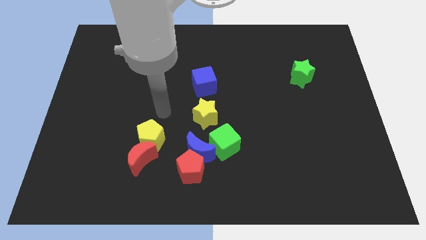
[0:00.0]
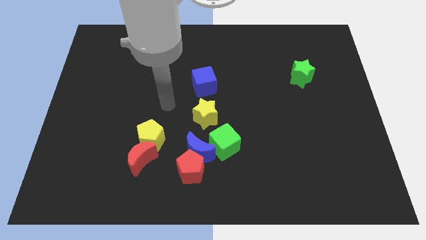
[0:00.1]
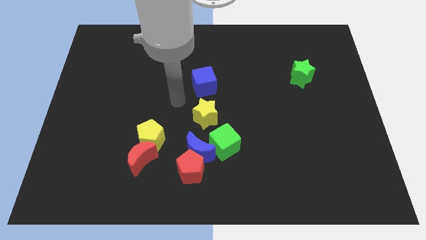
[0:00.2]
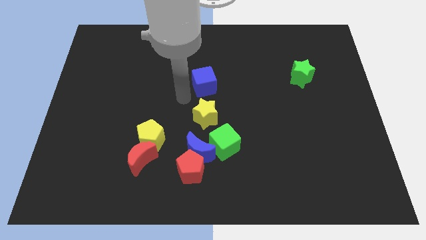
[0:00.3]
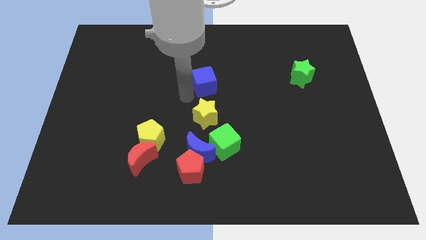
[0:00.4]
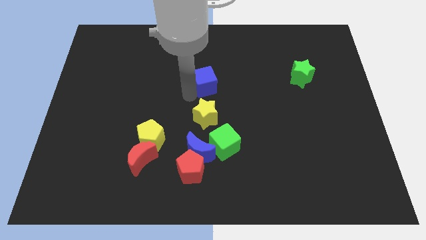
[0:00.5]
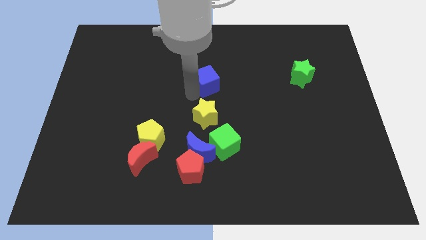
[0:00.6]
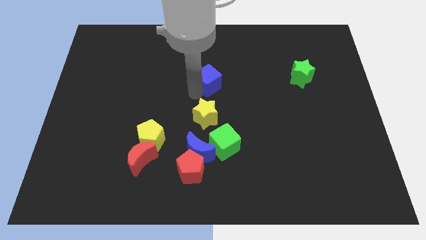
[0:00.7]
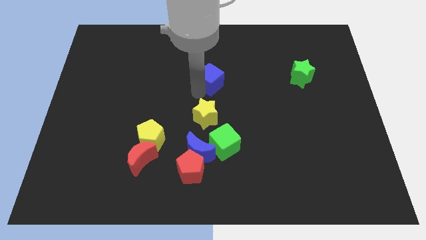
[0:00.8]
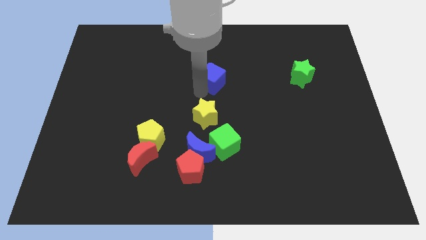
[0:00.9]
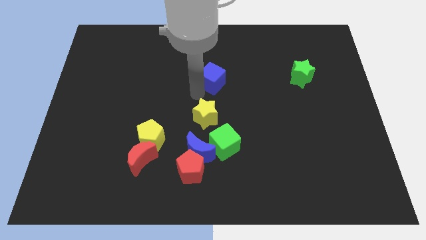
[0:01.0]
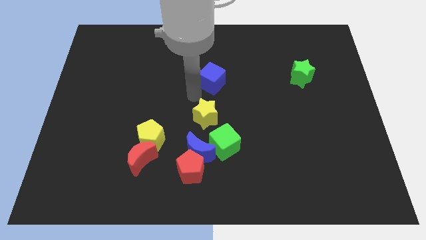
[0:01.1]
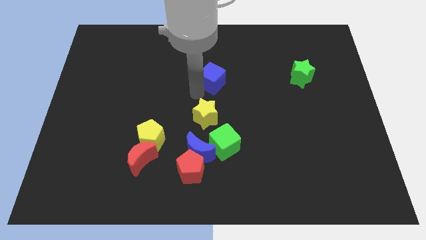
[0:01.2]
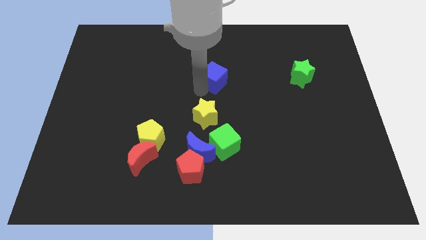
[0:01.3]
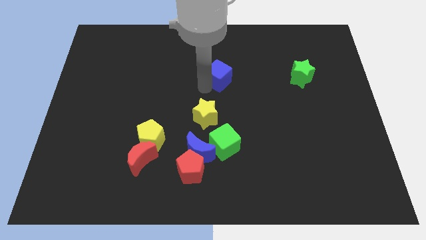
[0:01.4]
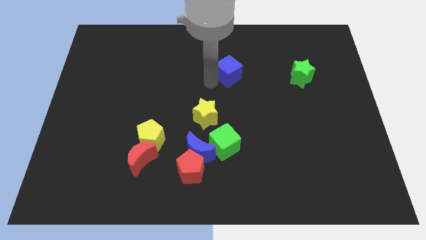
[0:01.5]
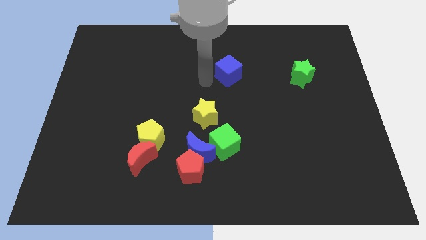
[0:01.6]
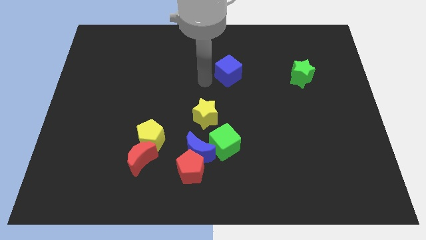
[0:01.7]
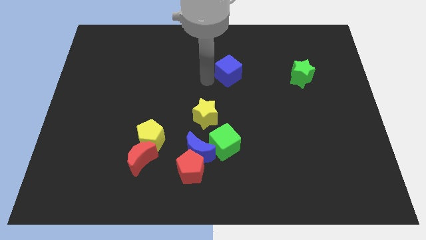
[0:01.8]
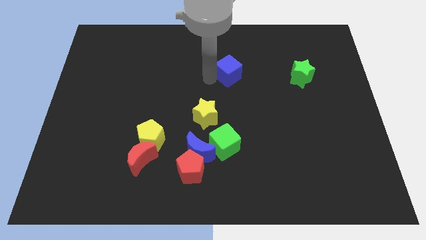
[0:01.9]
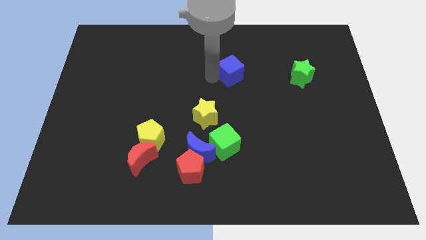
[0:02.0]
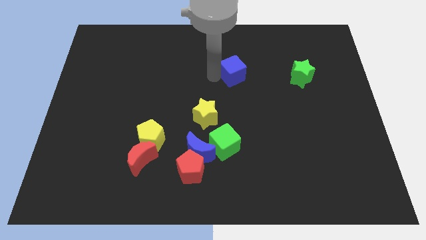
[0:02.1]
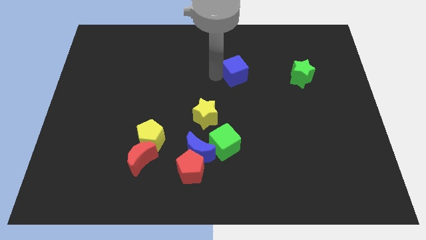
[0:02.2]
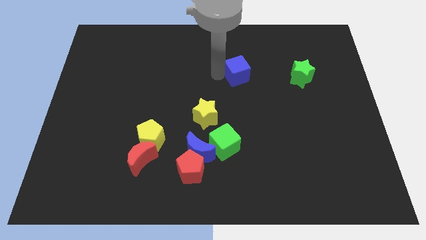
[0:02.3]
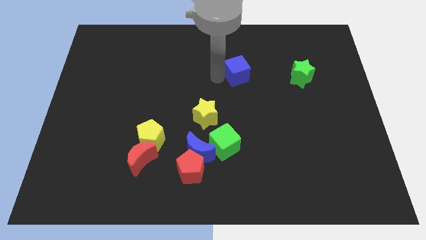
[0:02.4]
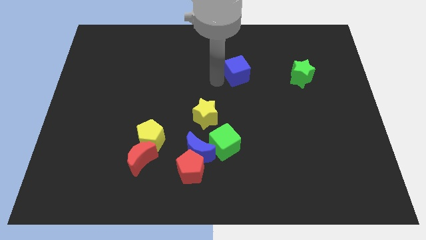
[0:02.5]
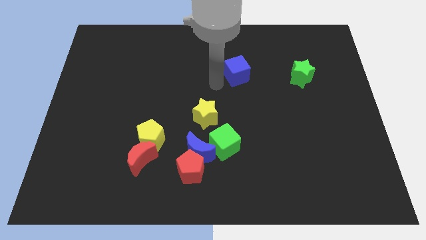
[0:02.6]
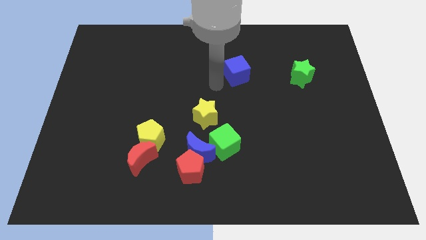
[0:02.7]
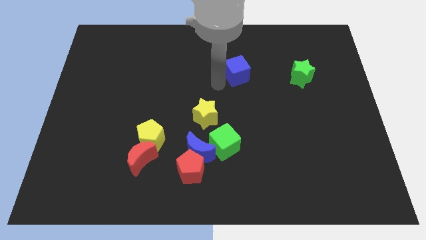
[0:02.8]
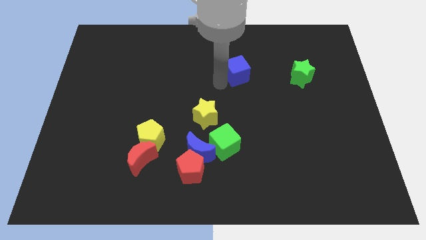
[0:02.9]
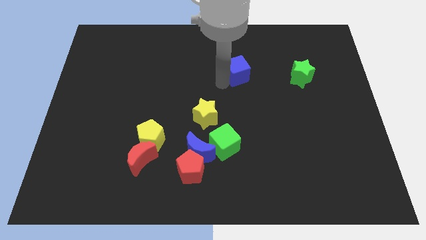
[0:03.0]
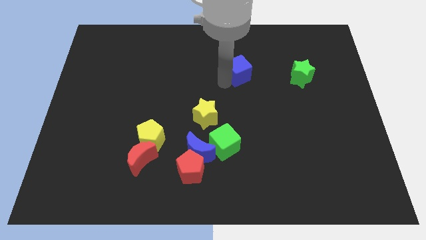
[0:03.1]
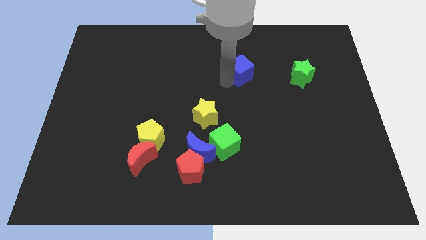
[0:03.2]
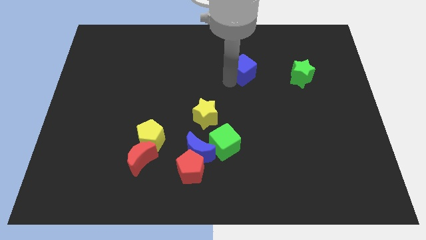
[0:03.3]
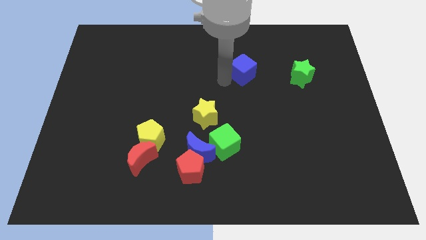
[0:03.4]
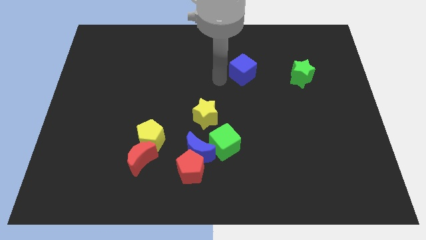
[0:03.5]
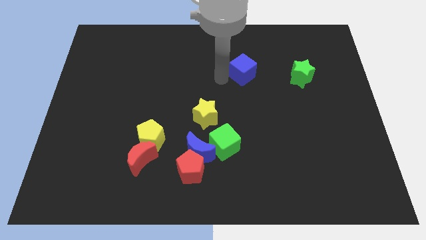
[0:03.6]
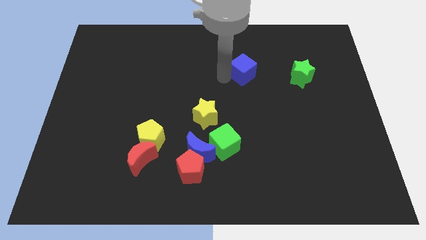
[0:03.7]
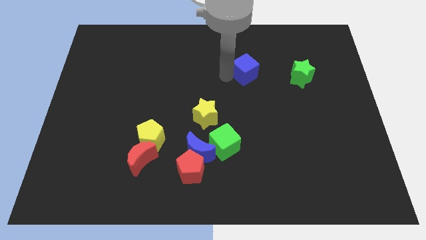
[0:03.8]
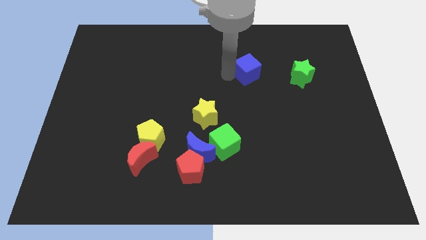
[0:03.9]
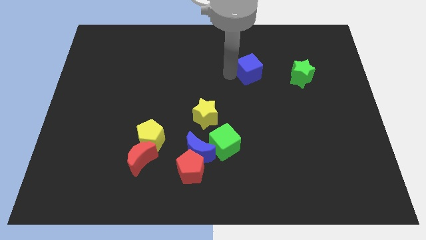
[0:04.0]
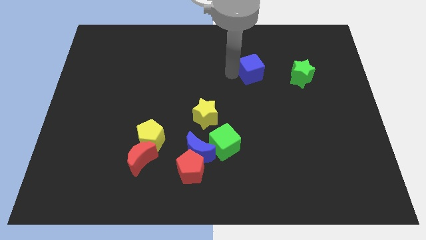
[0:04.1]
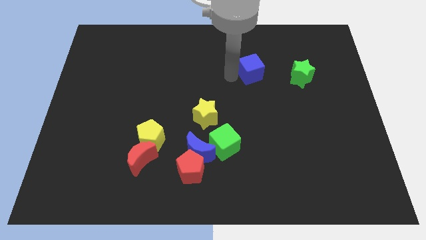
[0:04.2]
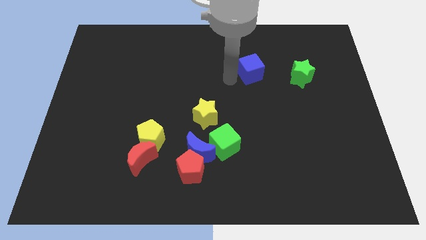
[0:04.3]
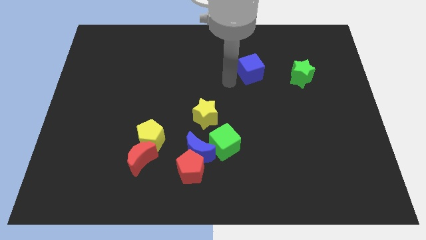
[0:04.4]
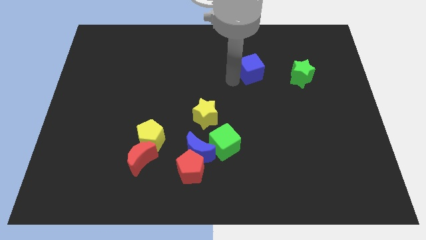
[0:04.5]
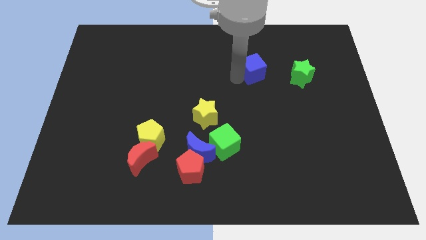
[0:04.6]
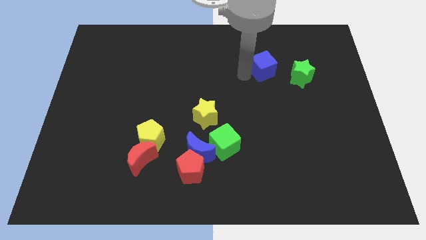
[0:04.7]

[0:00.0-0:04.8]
slide the blue cube diagonally up and to the left of the green star

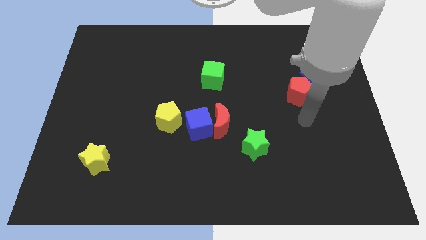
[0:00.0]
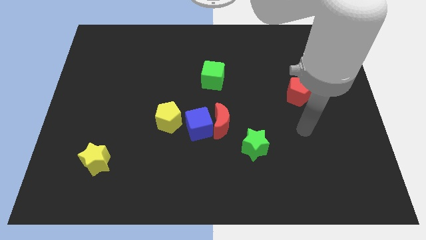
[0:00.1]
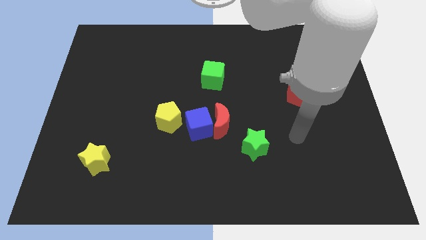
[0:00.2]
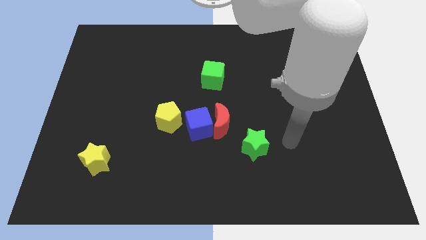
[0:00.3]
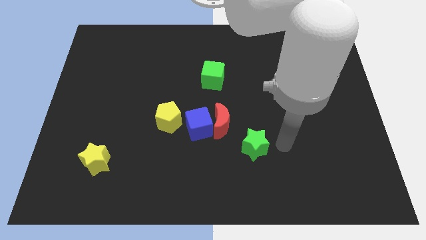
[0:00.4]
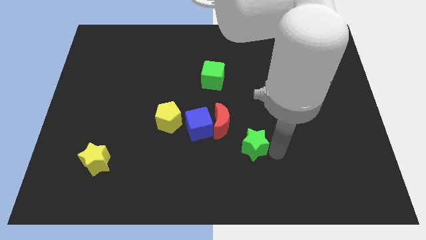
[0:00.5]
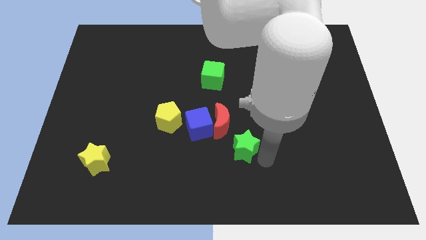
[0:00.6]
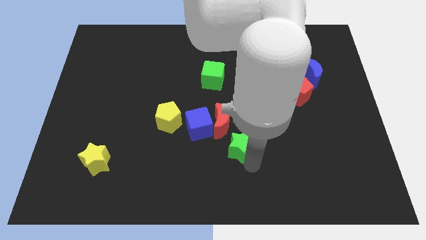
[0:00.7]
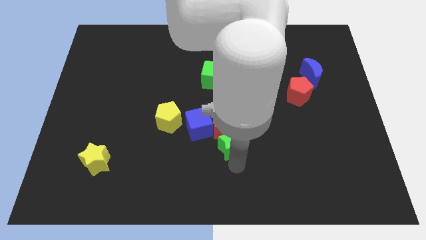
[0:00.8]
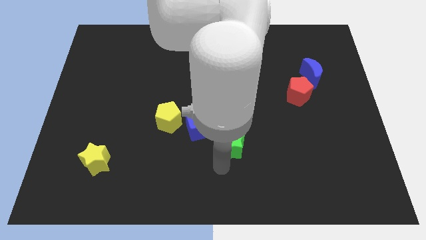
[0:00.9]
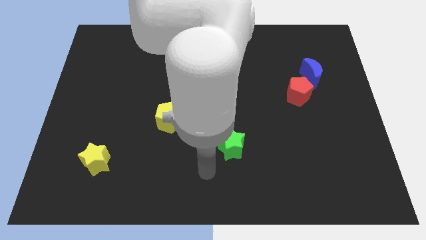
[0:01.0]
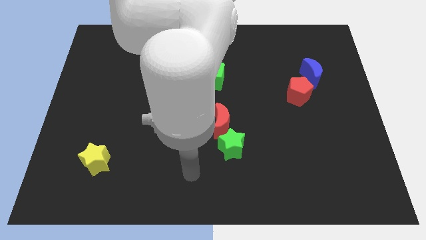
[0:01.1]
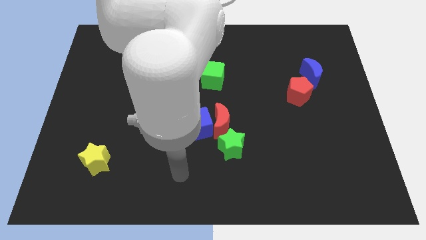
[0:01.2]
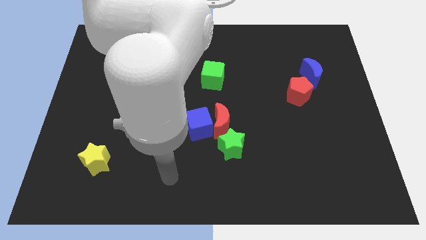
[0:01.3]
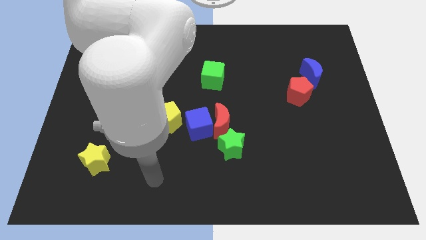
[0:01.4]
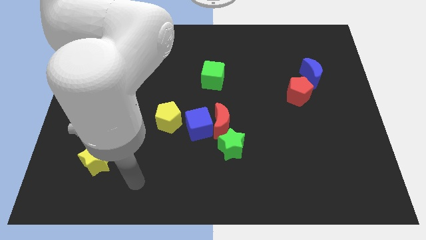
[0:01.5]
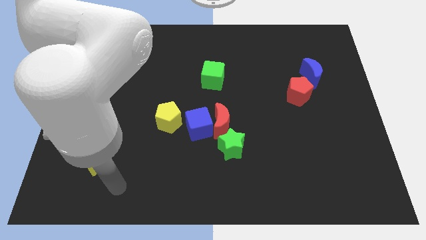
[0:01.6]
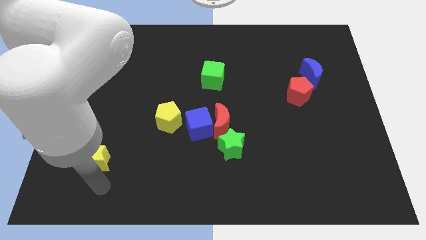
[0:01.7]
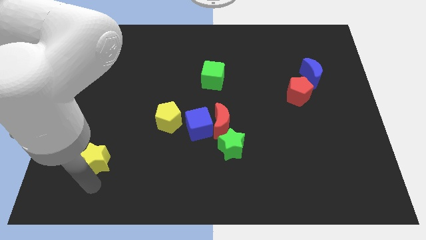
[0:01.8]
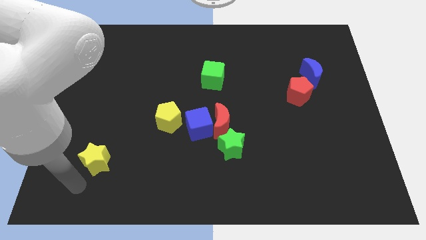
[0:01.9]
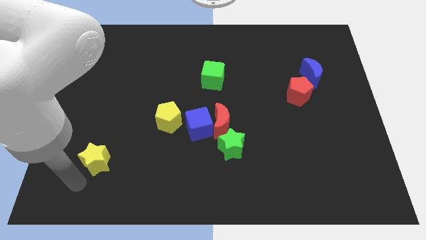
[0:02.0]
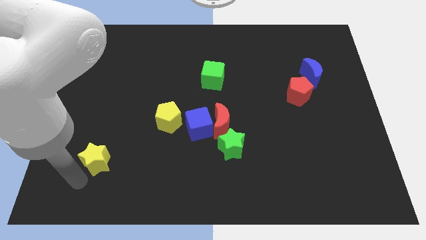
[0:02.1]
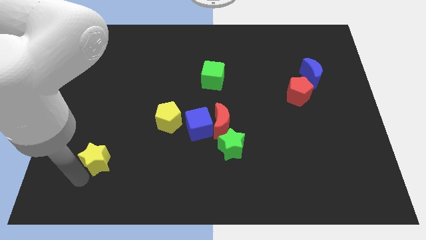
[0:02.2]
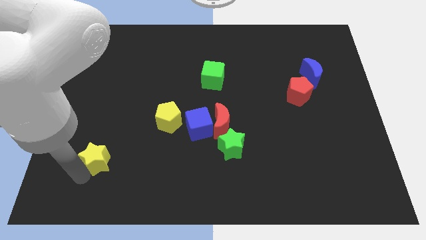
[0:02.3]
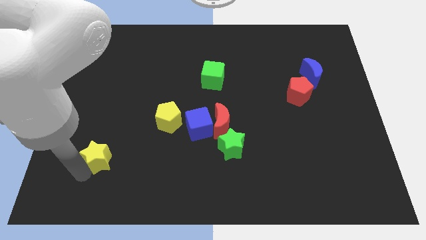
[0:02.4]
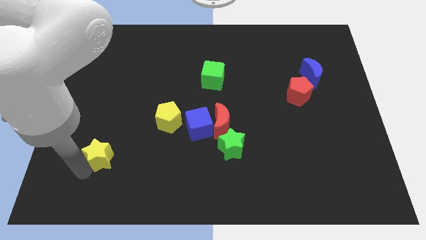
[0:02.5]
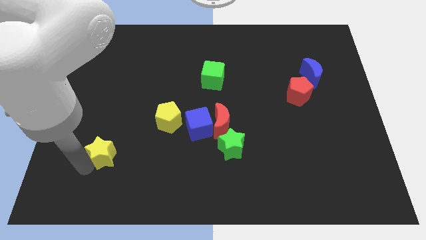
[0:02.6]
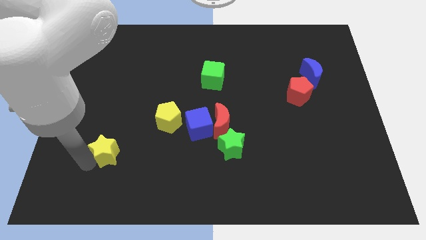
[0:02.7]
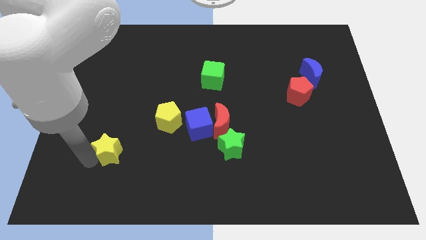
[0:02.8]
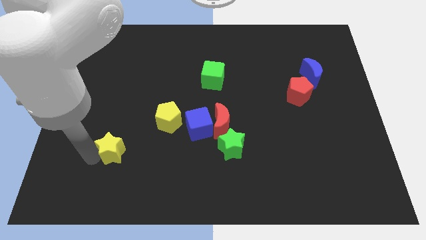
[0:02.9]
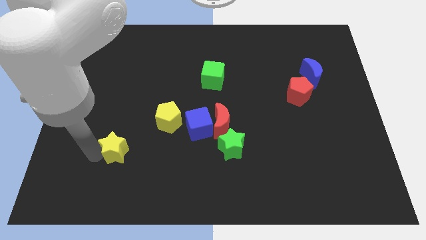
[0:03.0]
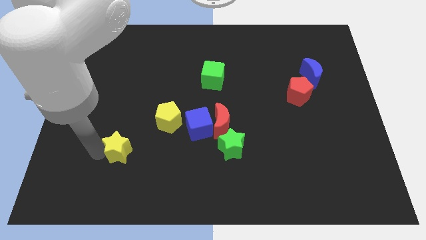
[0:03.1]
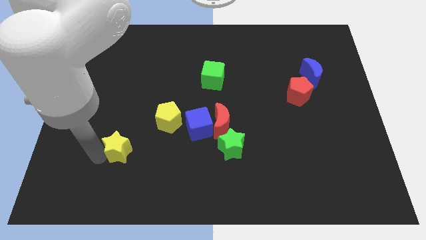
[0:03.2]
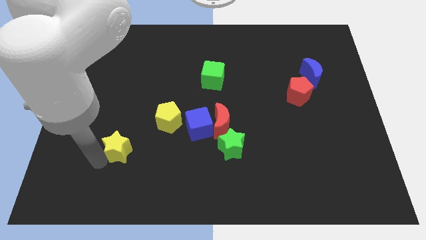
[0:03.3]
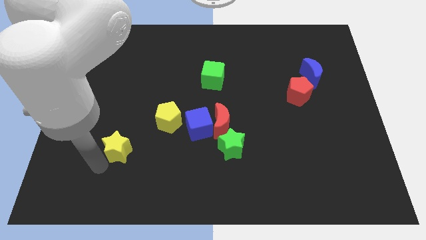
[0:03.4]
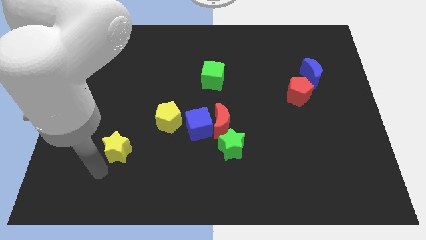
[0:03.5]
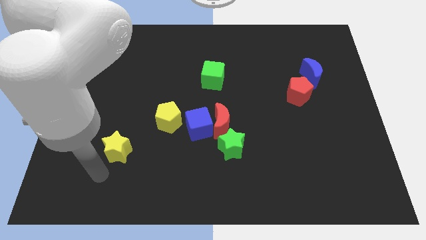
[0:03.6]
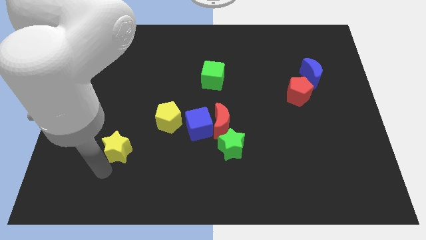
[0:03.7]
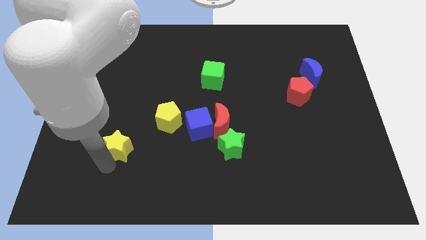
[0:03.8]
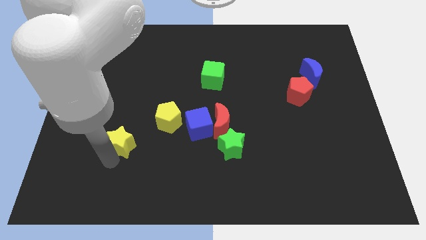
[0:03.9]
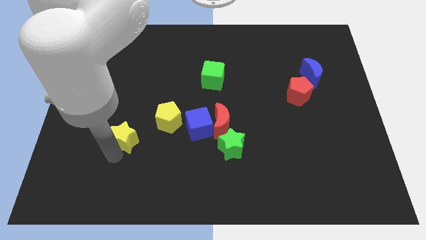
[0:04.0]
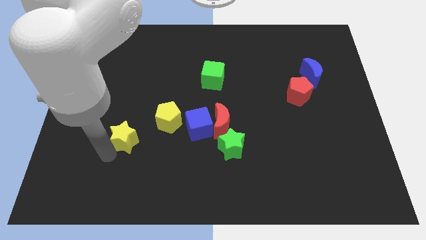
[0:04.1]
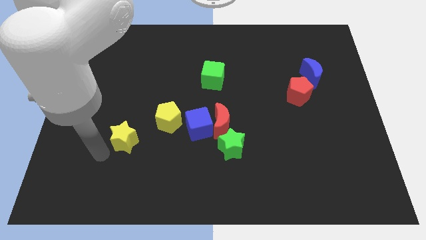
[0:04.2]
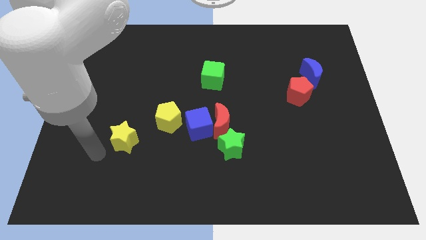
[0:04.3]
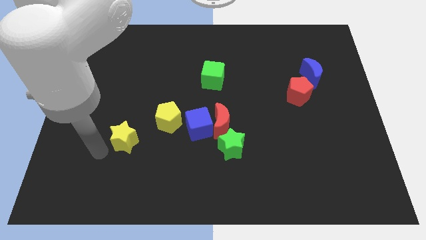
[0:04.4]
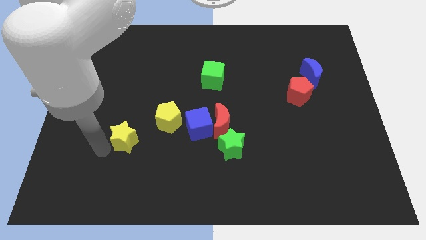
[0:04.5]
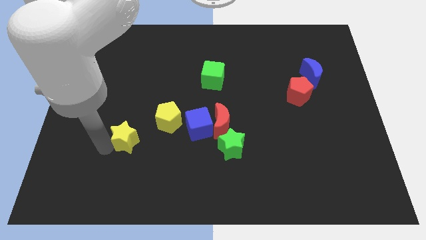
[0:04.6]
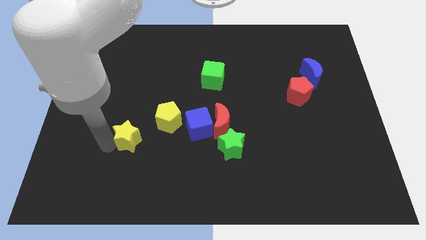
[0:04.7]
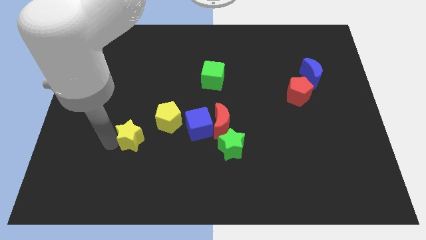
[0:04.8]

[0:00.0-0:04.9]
slide the yellow star left of the blue cube
